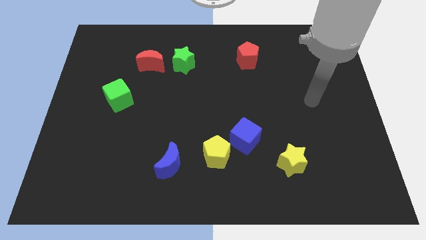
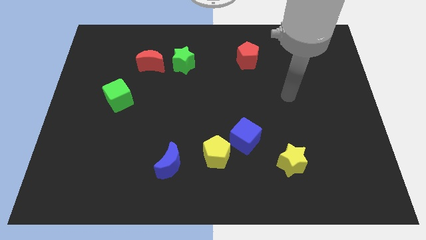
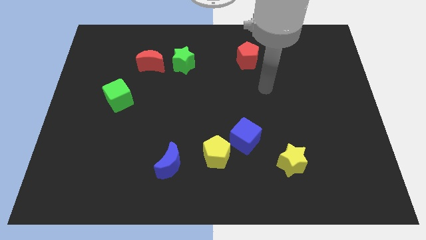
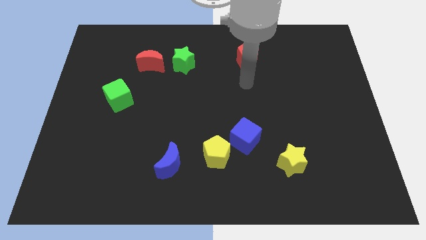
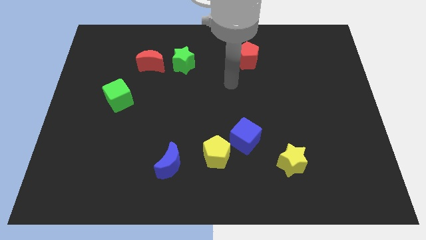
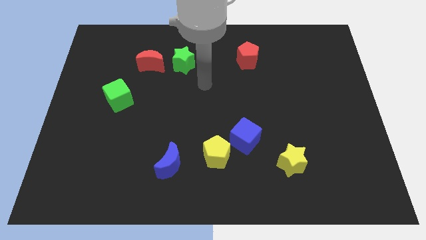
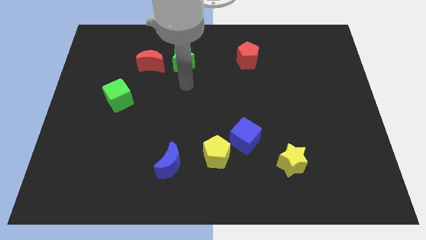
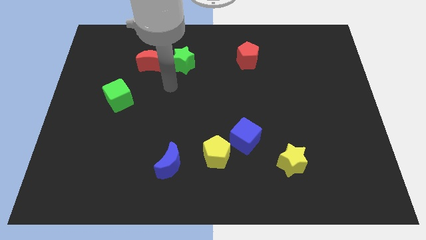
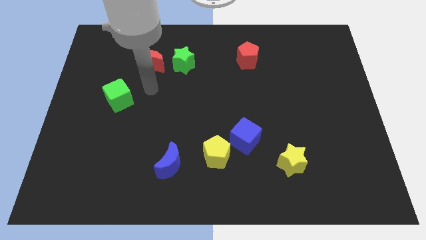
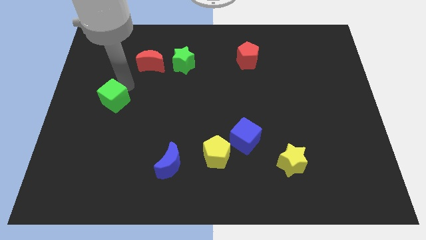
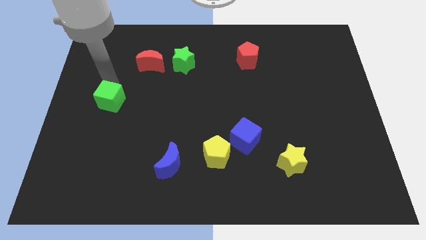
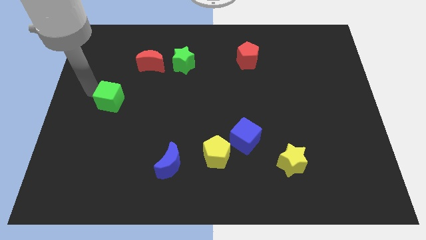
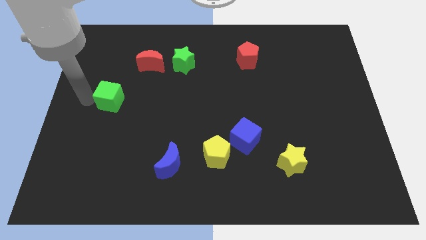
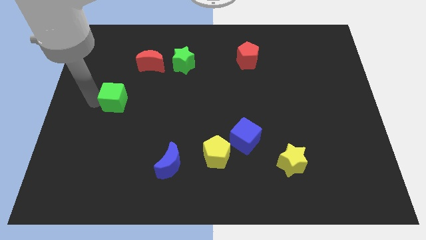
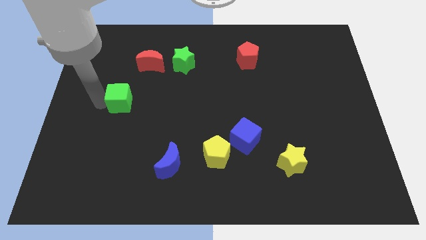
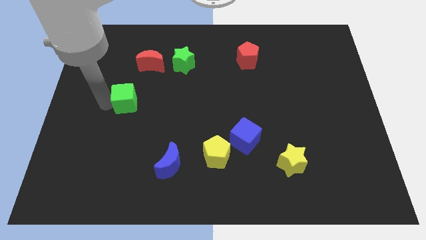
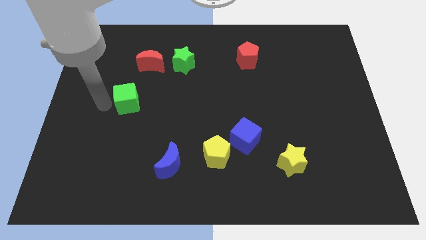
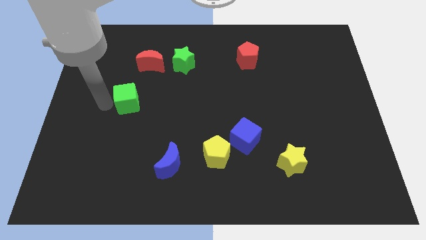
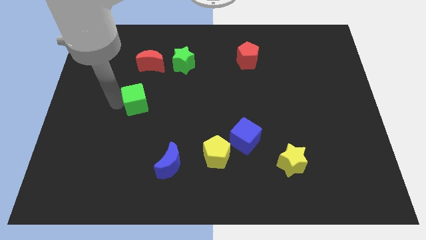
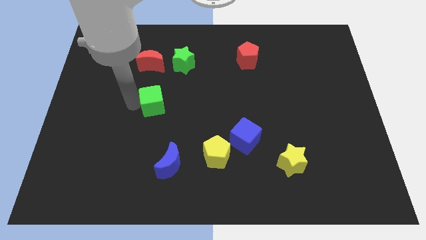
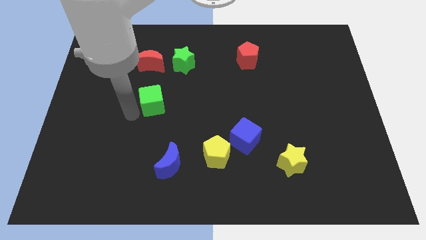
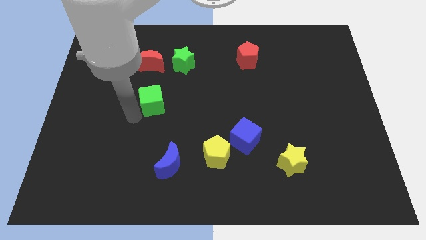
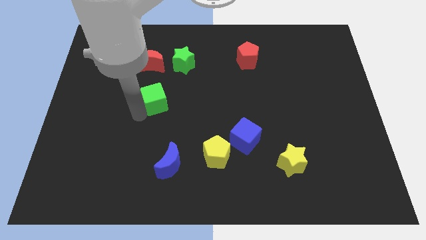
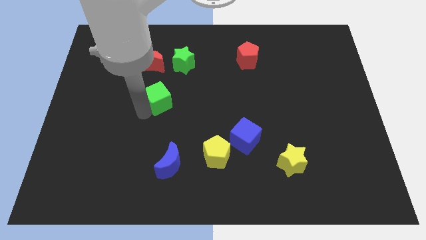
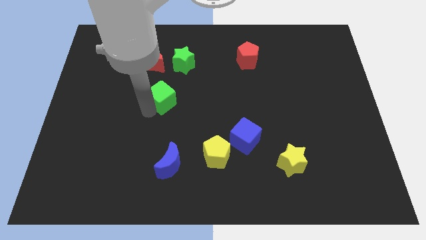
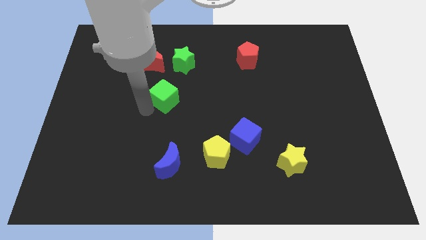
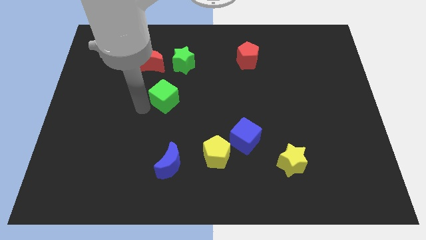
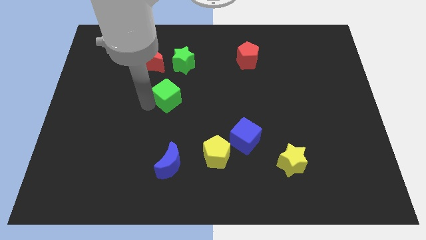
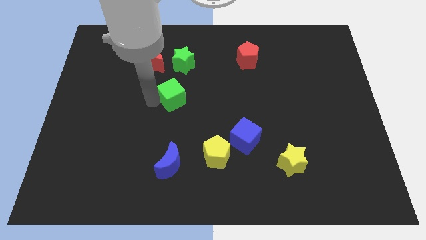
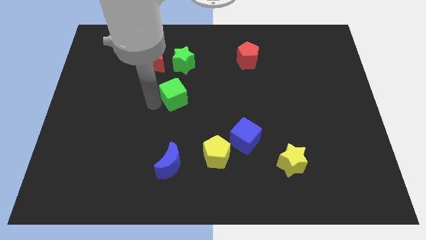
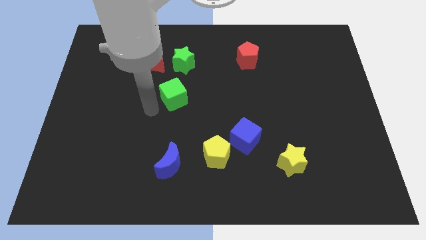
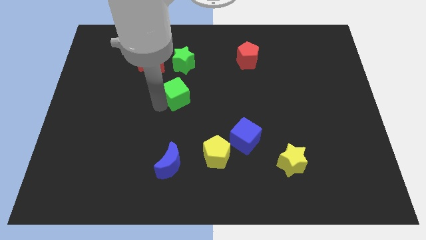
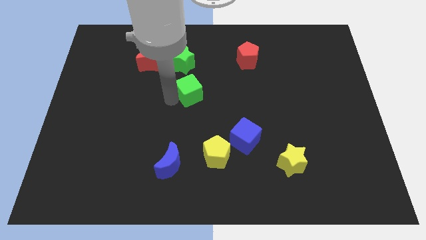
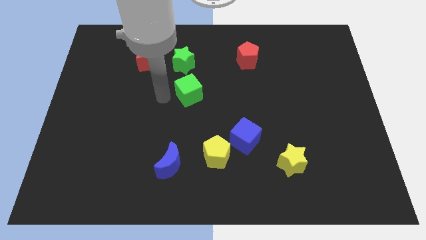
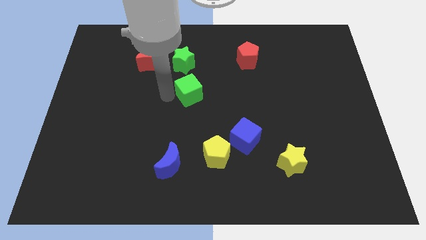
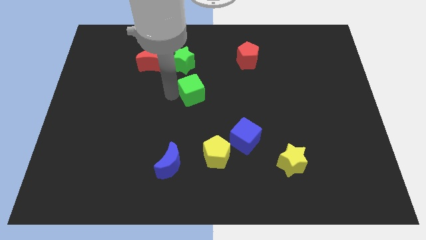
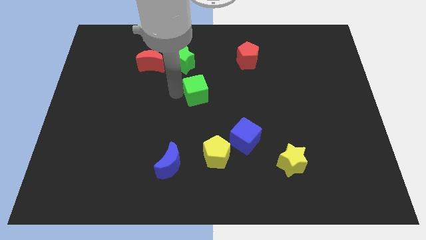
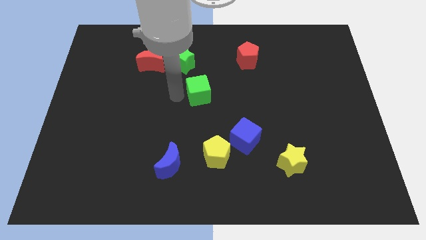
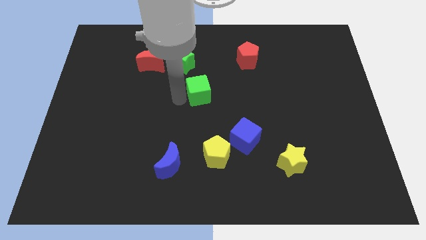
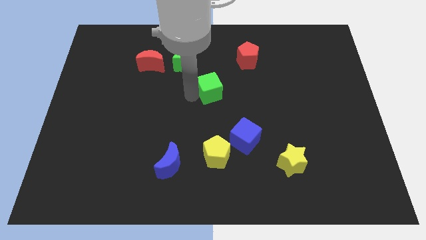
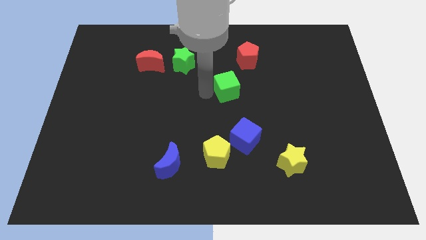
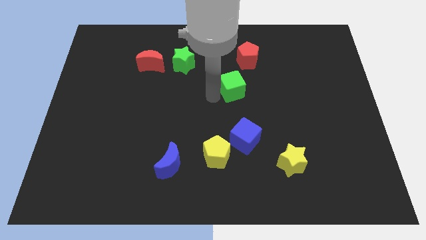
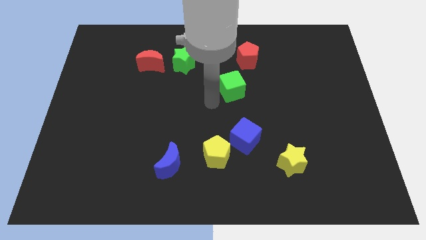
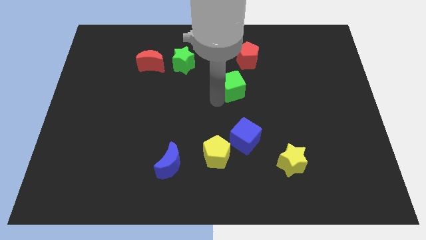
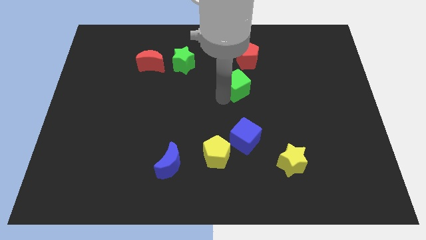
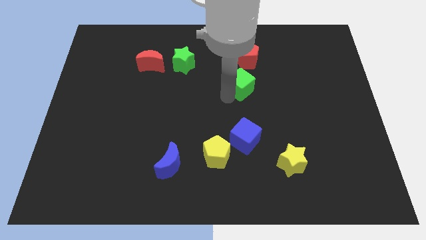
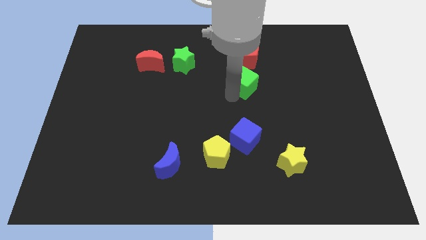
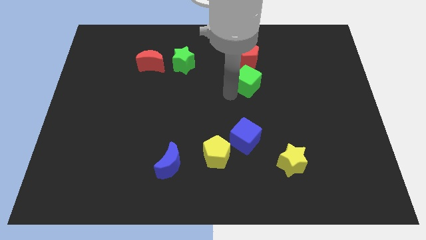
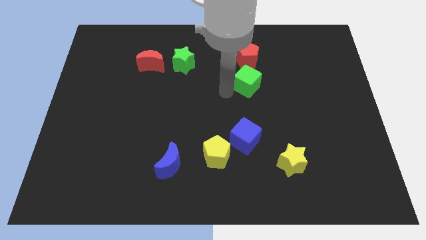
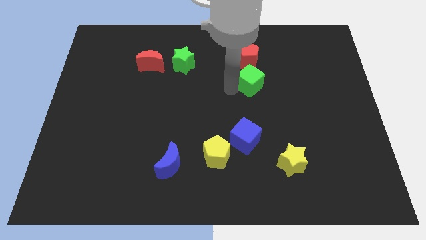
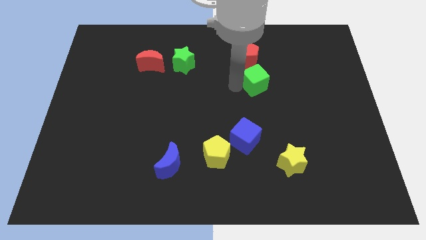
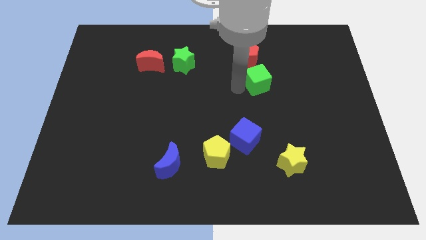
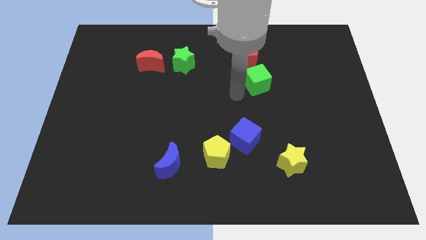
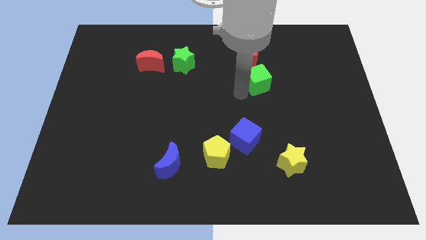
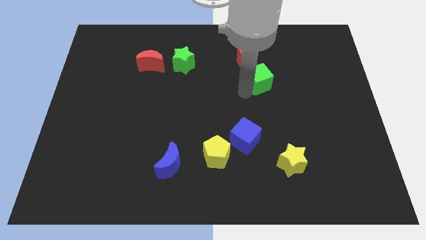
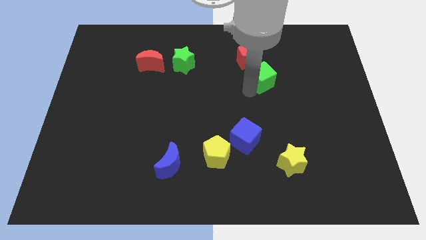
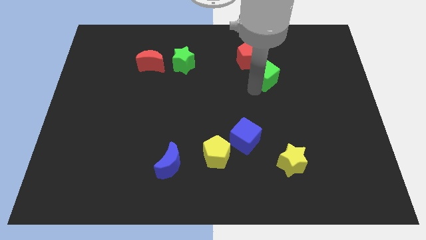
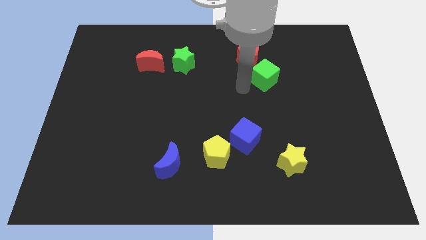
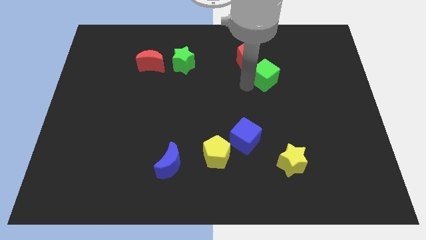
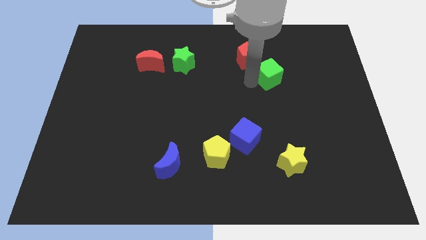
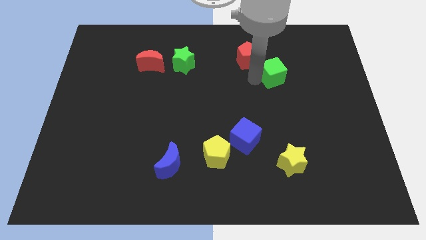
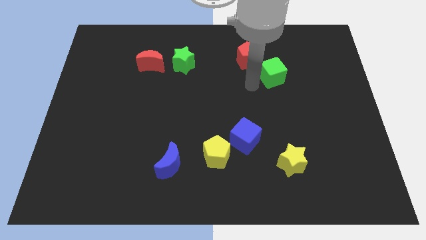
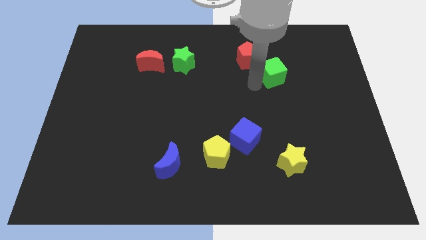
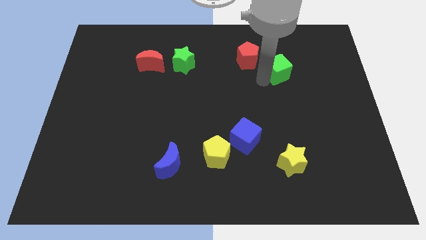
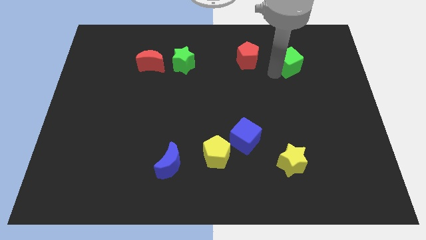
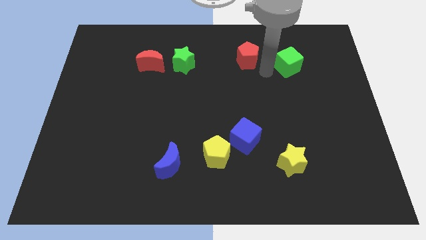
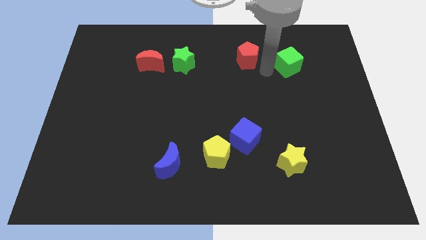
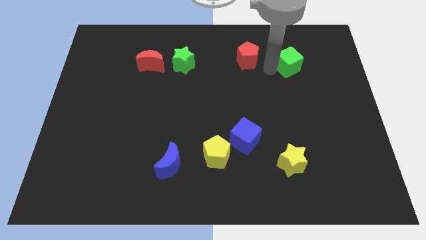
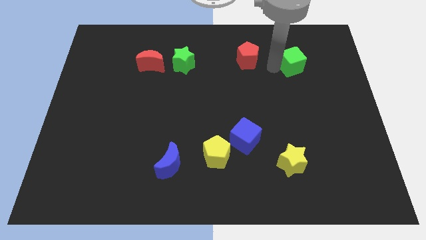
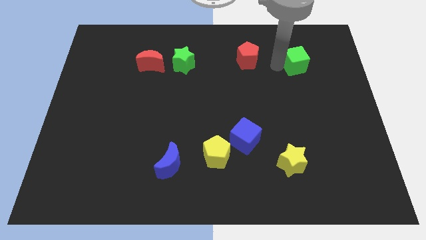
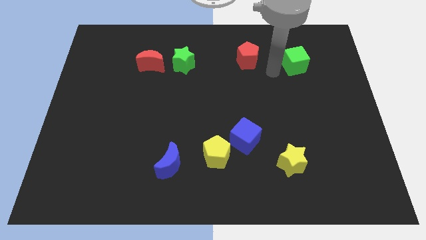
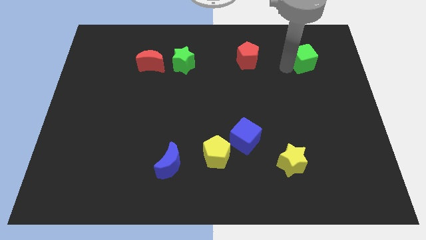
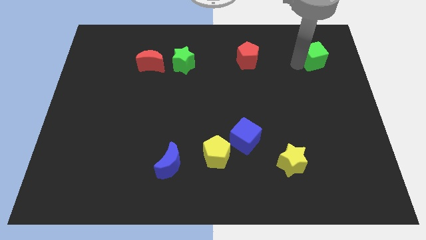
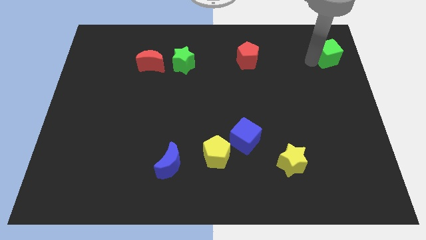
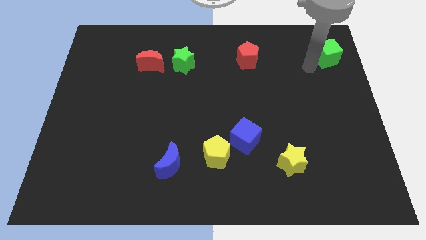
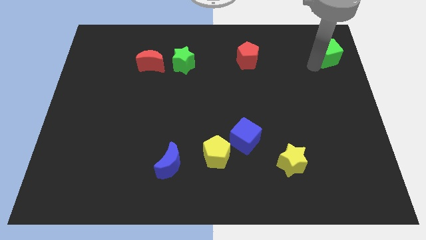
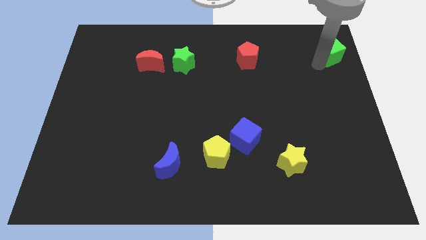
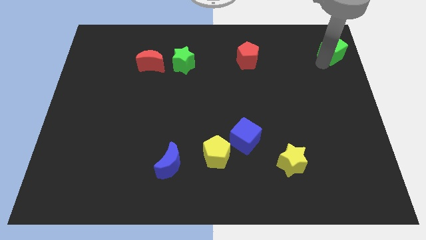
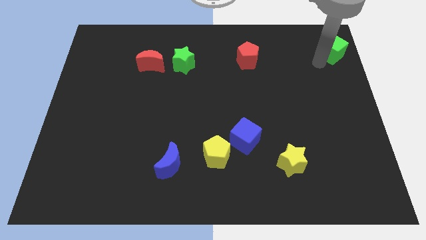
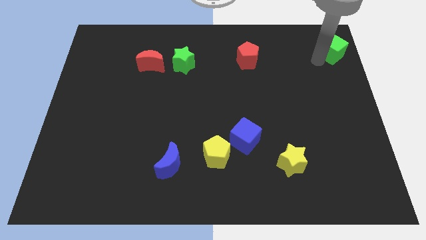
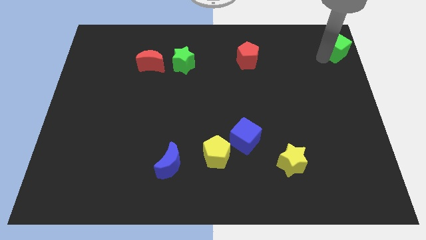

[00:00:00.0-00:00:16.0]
put the green cube to the top right
